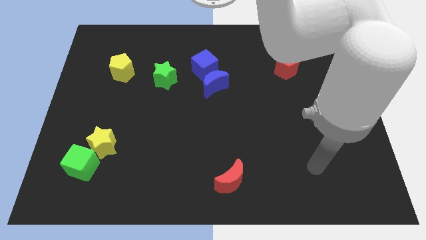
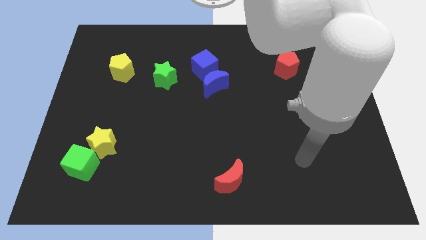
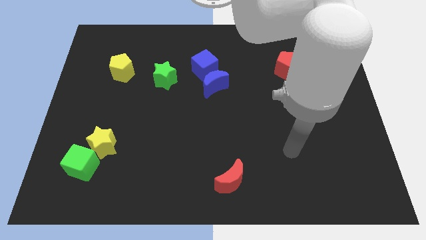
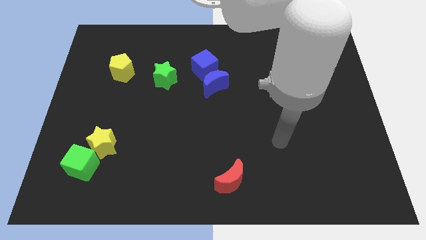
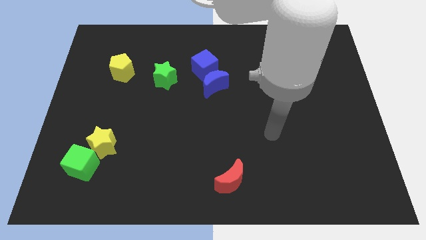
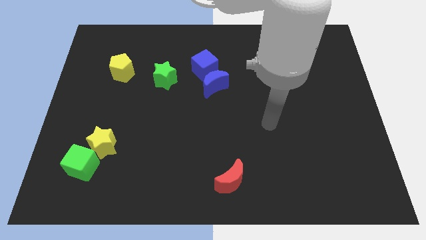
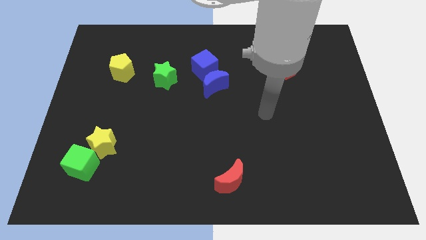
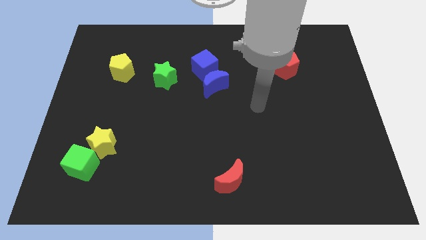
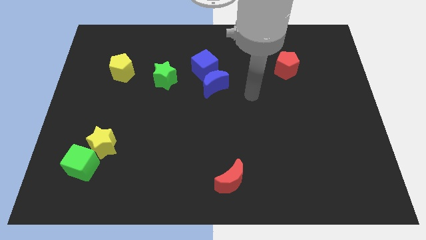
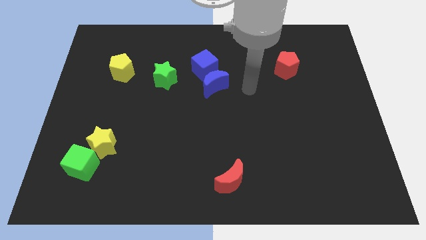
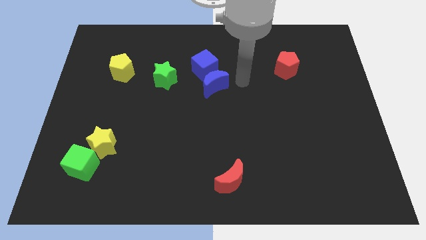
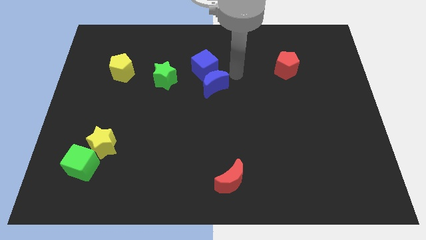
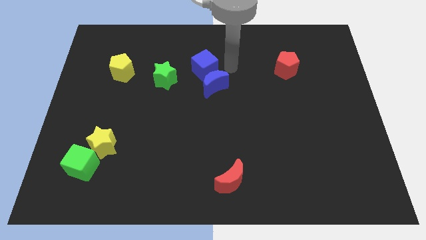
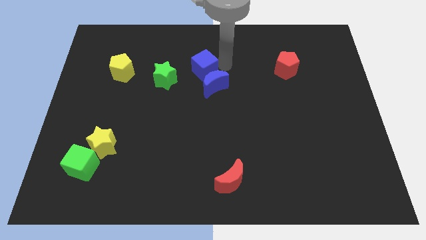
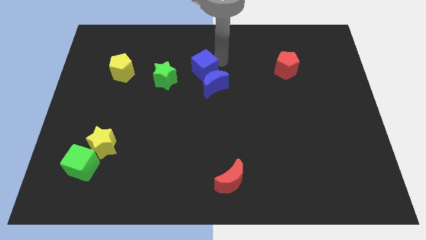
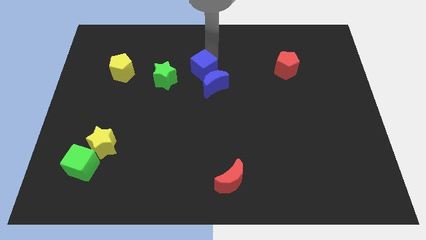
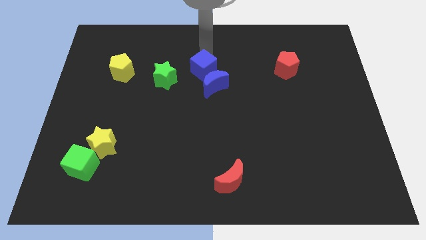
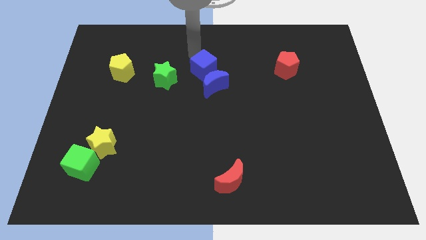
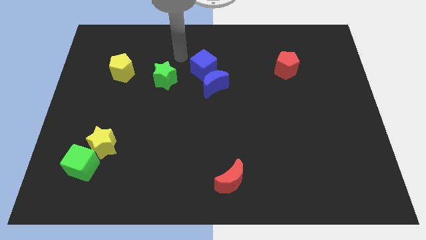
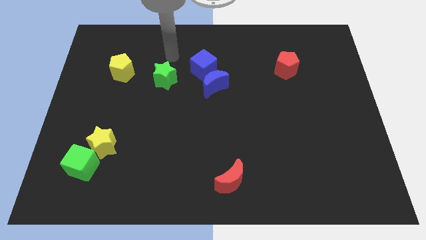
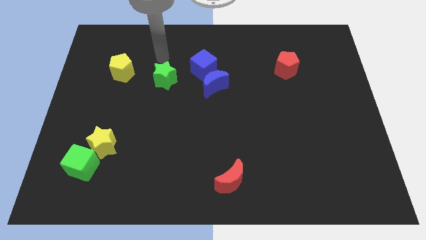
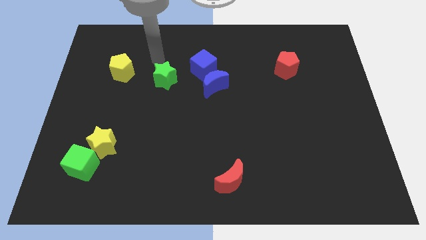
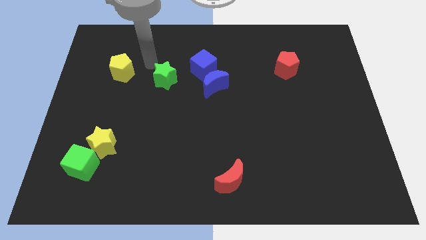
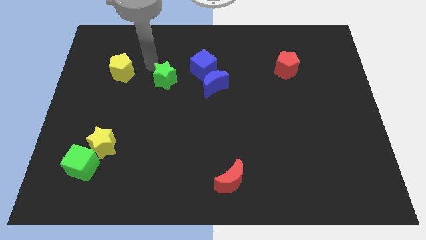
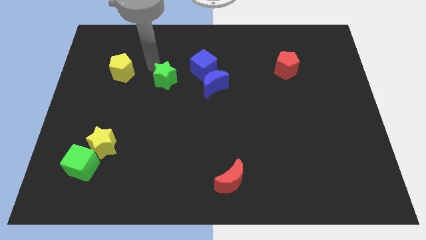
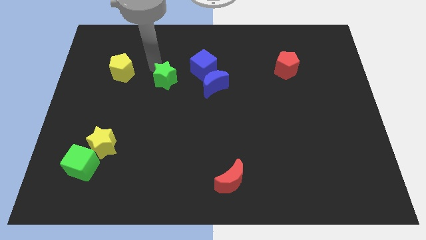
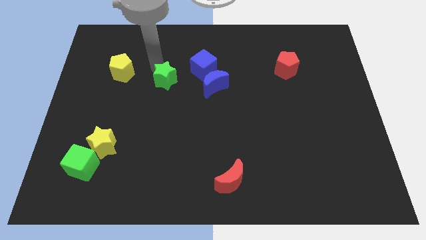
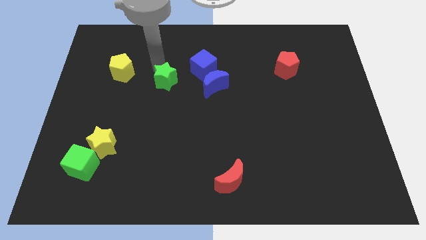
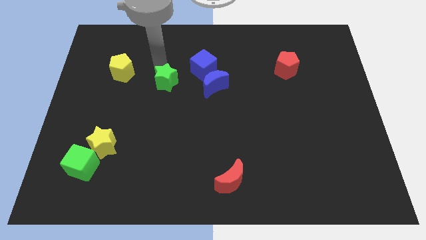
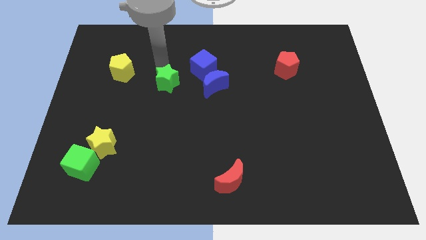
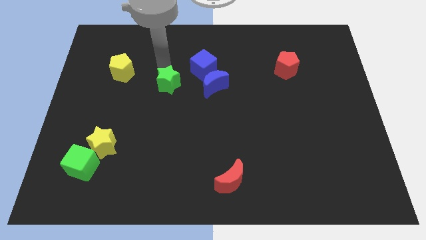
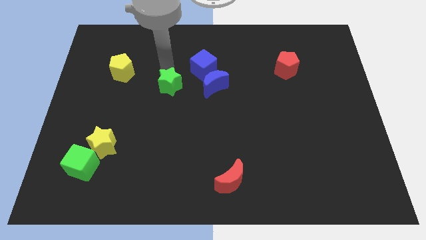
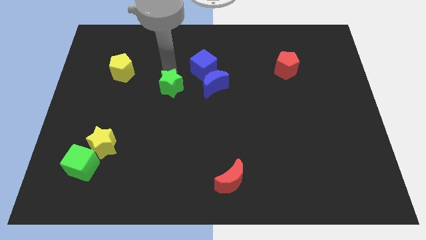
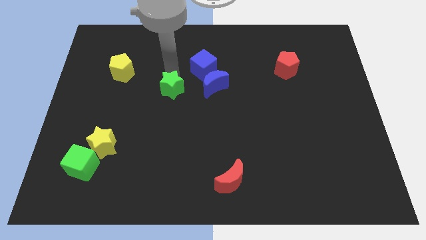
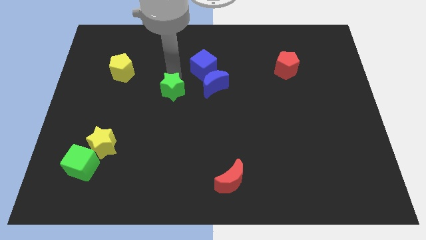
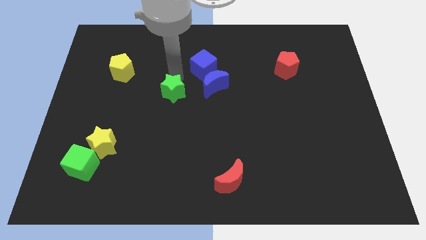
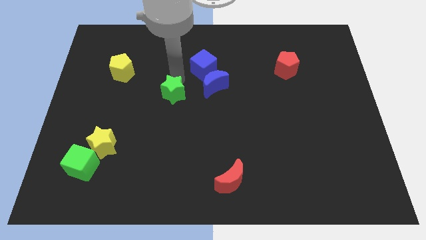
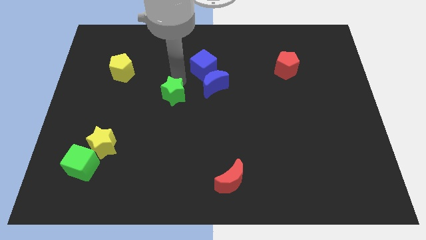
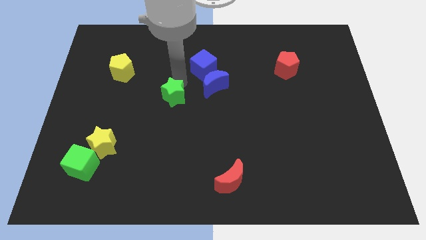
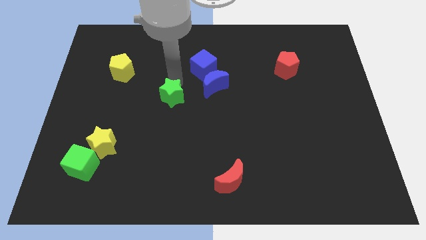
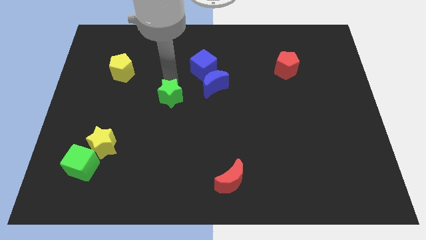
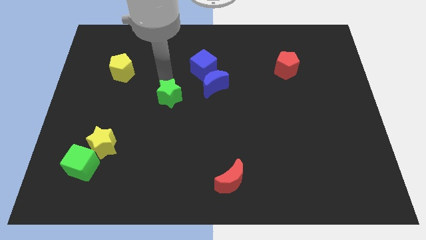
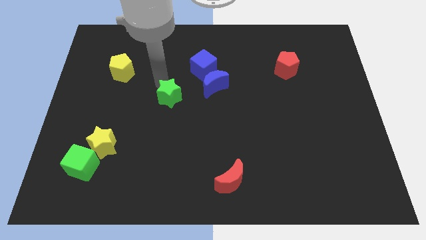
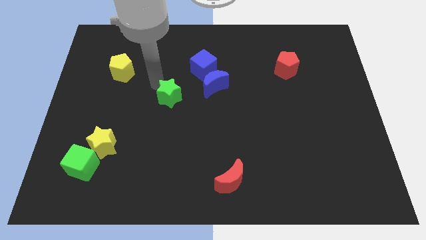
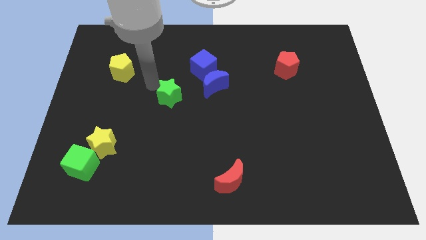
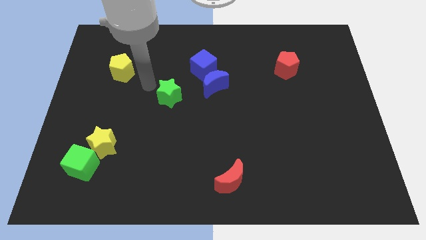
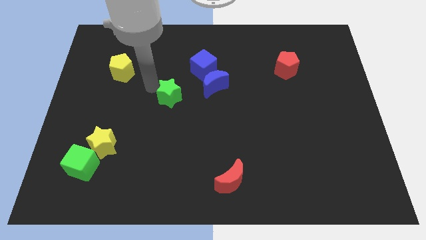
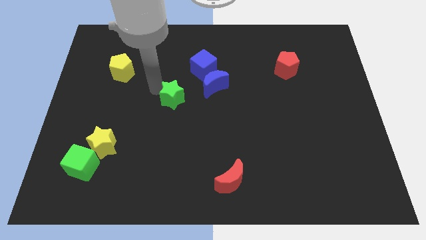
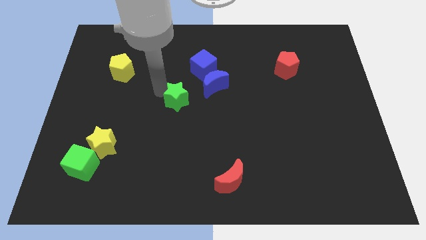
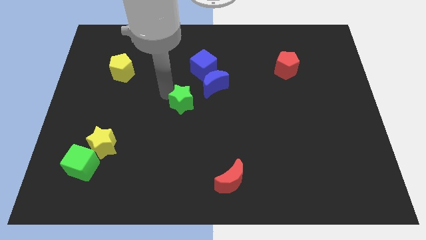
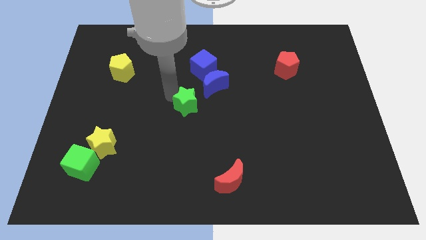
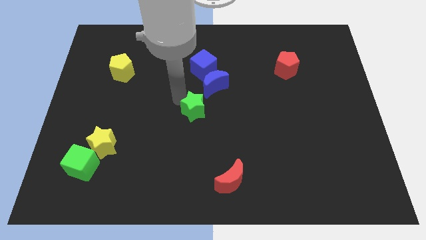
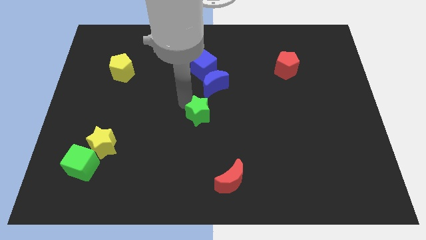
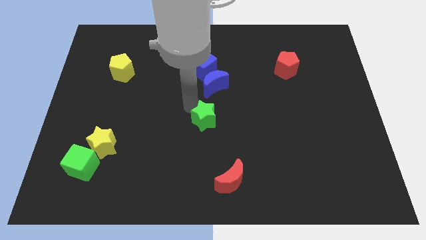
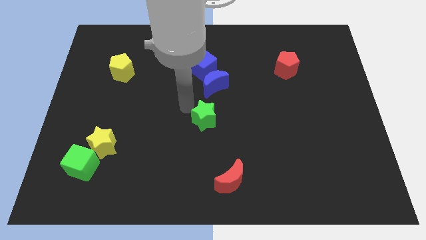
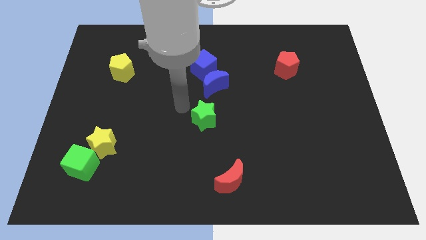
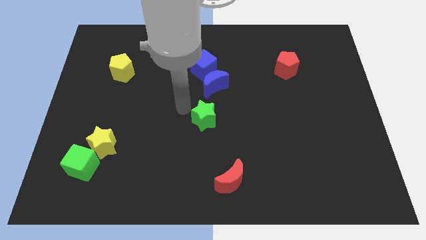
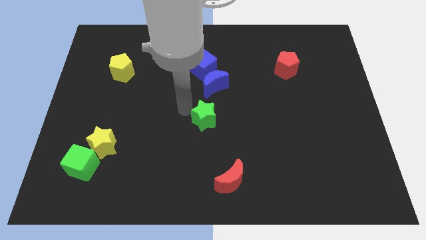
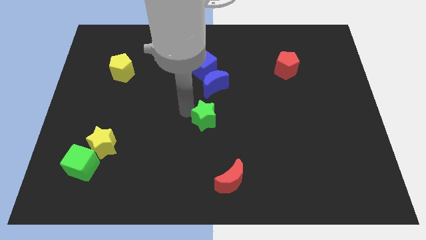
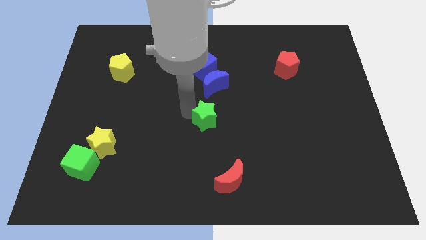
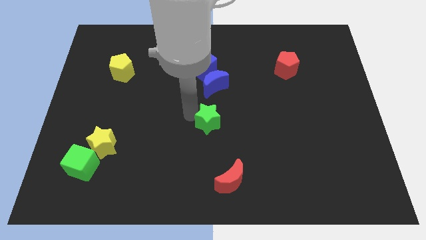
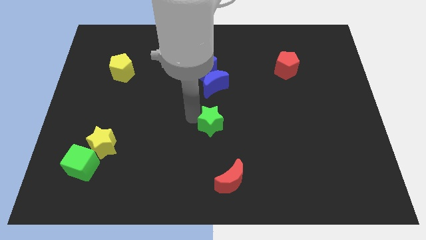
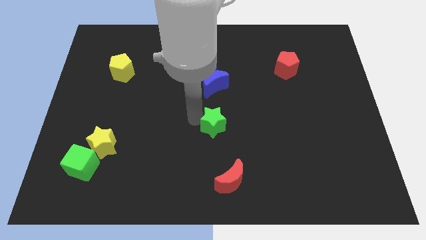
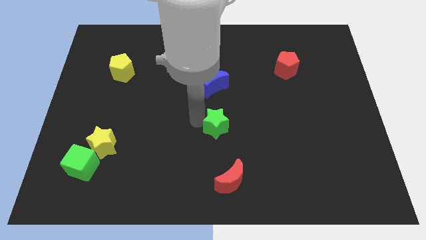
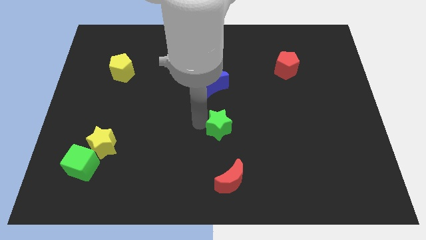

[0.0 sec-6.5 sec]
slide the green star diagonally downwards and right

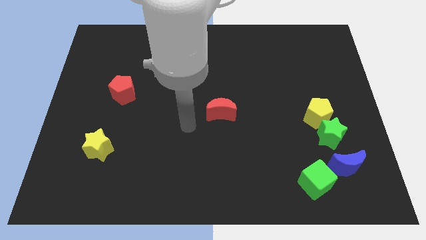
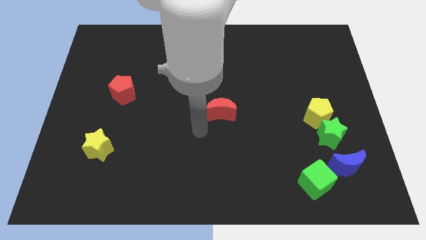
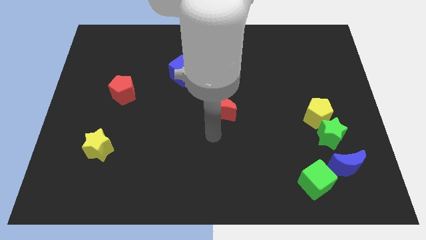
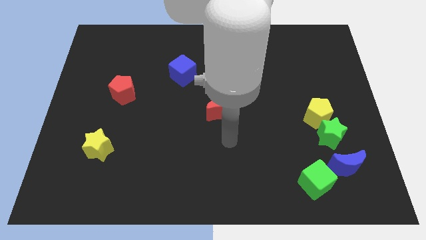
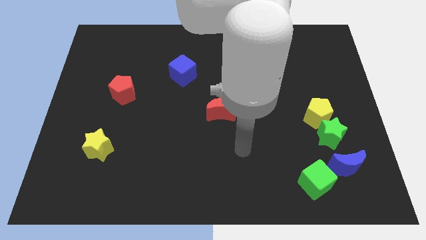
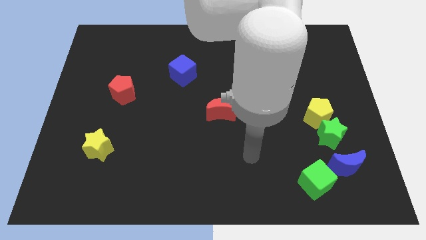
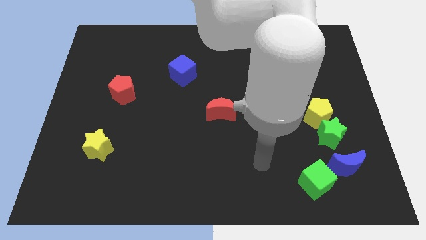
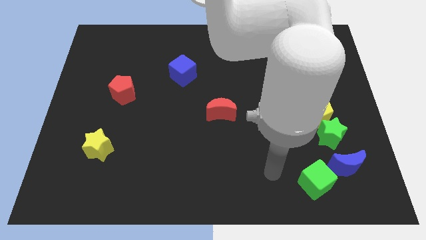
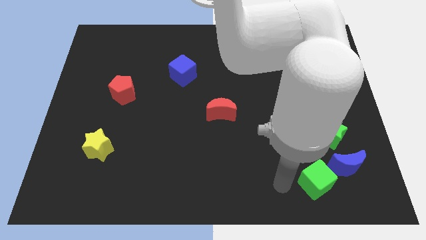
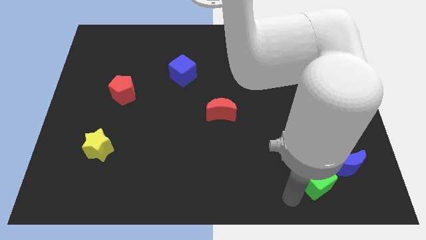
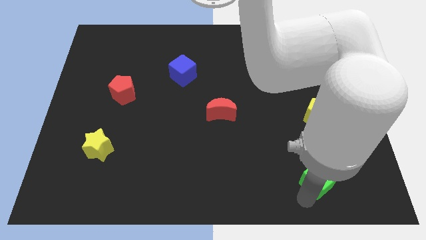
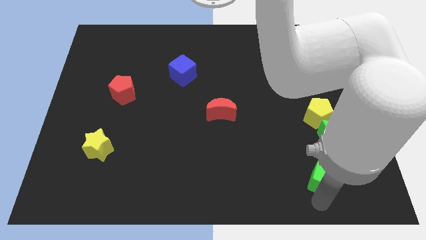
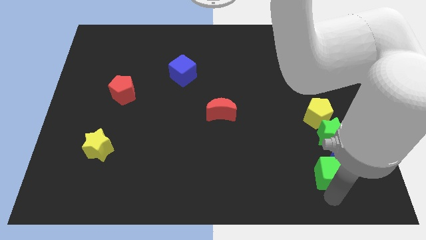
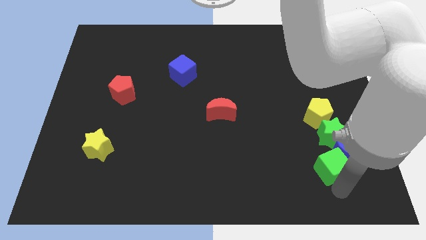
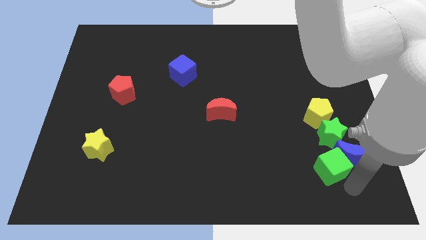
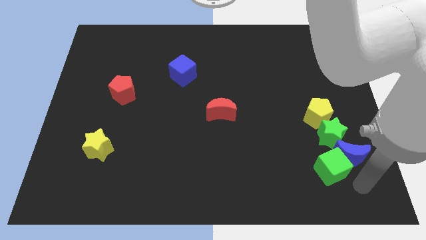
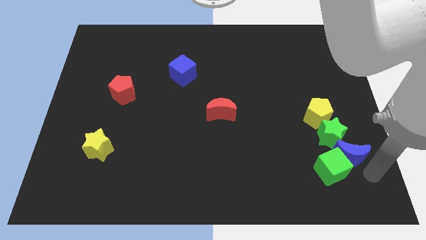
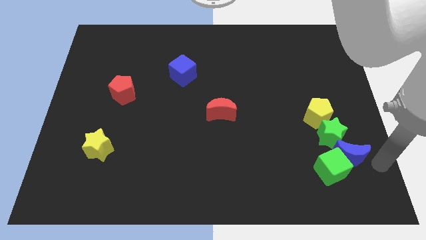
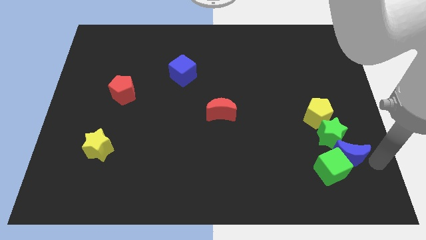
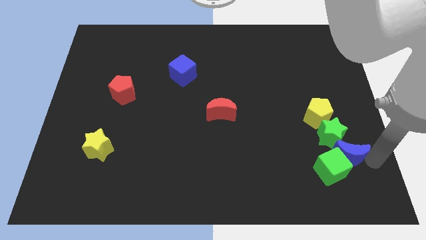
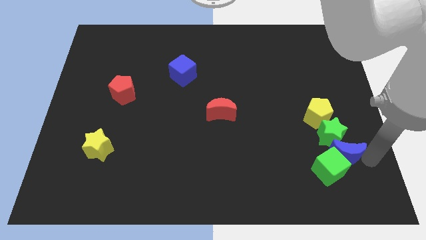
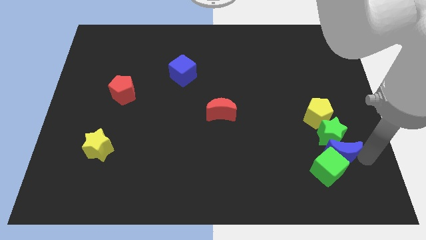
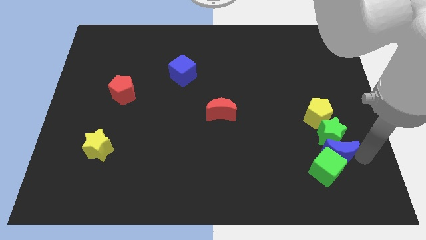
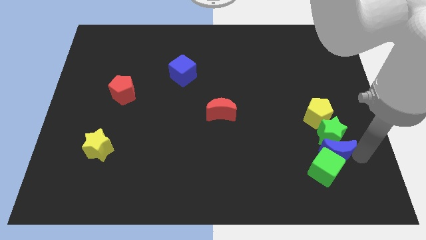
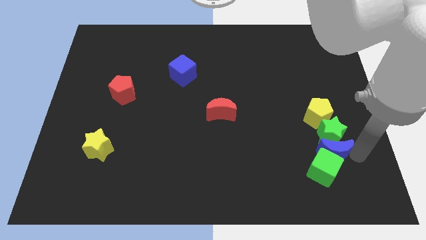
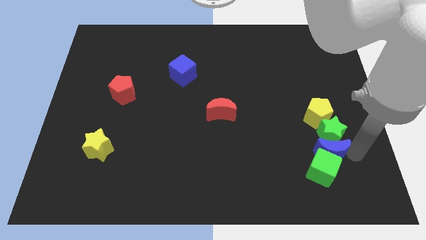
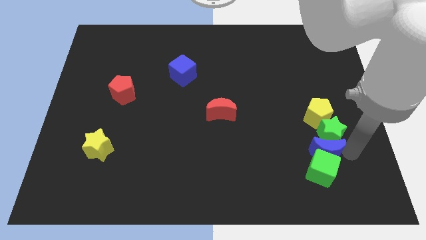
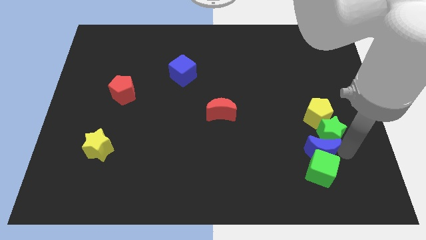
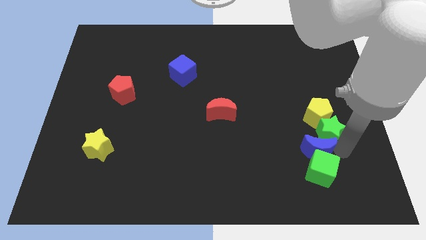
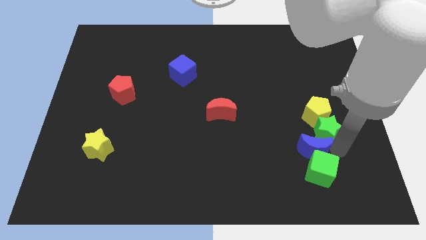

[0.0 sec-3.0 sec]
slightly slide the blue moon up and left
